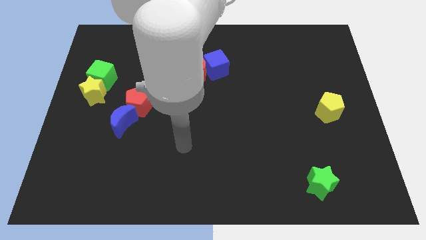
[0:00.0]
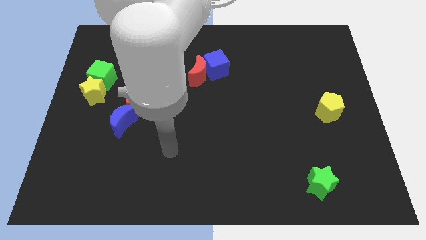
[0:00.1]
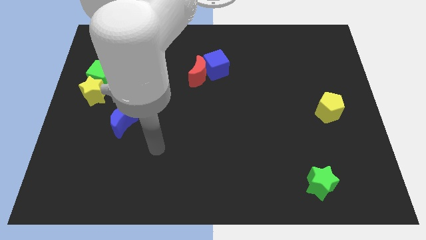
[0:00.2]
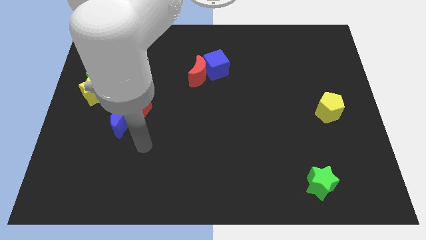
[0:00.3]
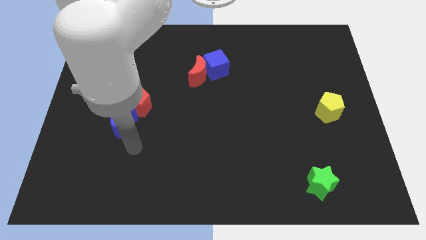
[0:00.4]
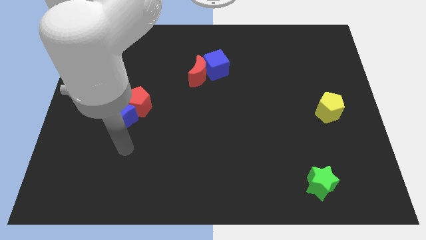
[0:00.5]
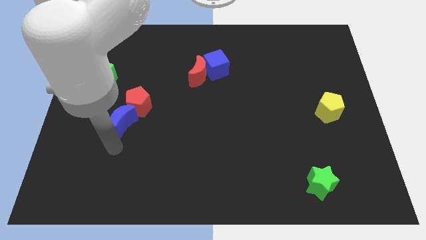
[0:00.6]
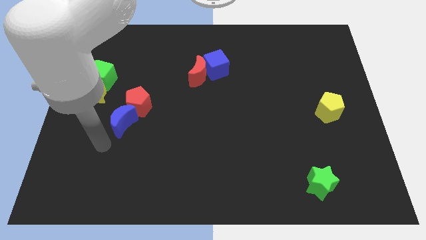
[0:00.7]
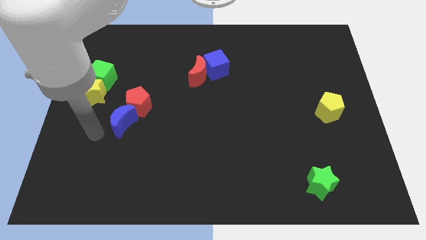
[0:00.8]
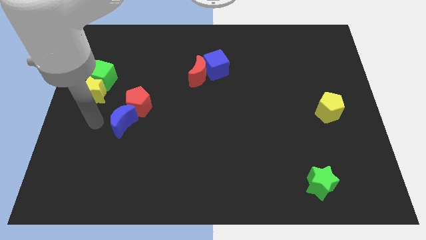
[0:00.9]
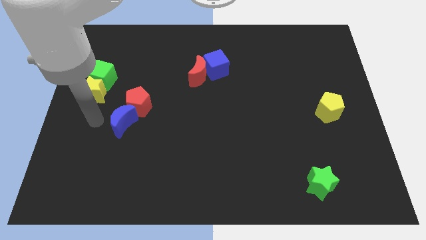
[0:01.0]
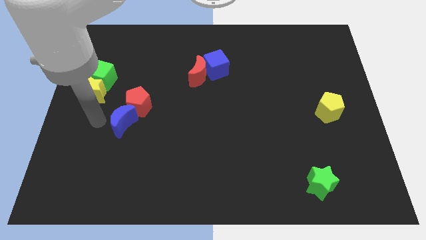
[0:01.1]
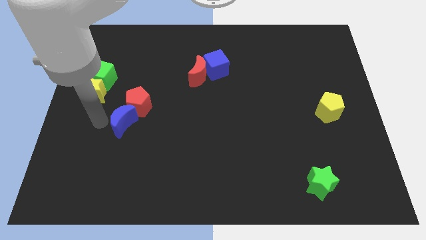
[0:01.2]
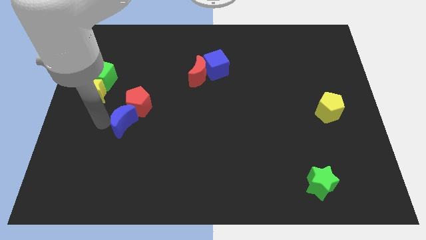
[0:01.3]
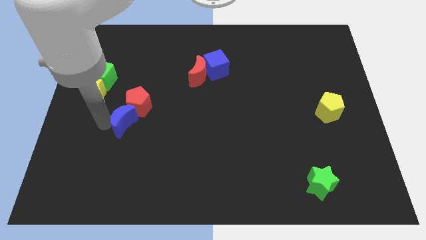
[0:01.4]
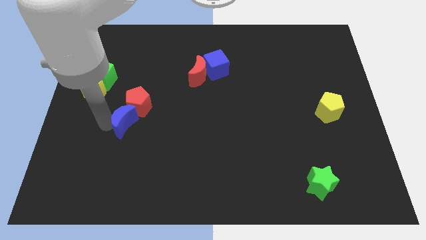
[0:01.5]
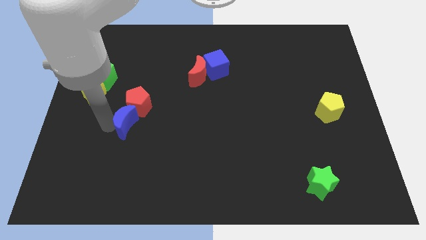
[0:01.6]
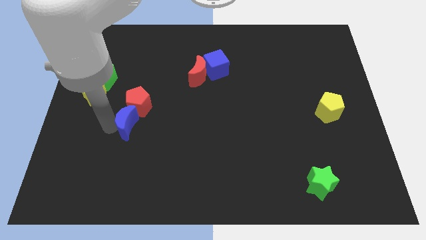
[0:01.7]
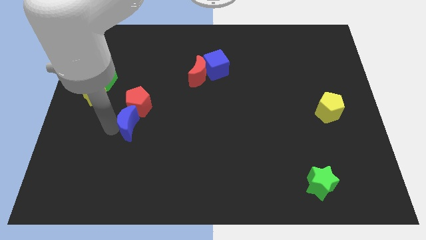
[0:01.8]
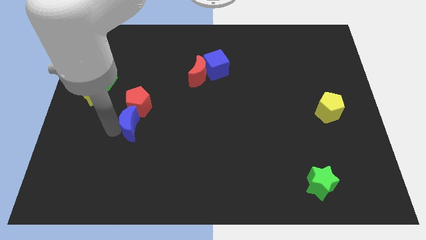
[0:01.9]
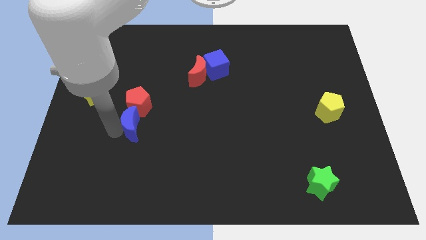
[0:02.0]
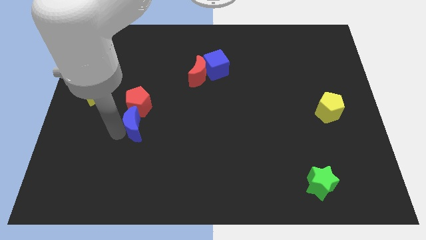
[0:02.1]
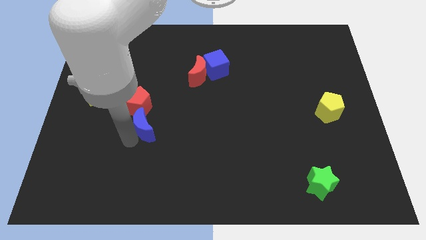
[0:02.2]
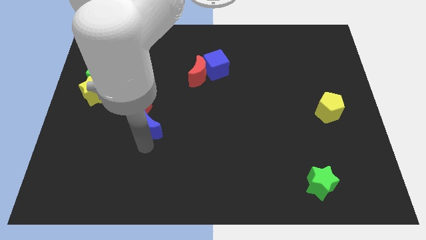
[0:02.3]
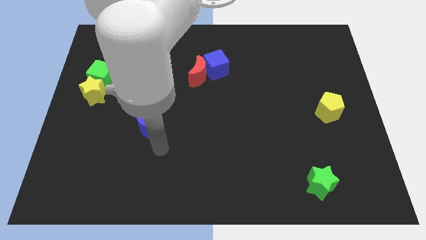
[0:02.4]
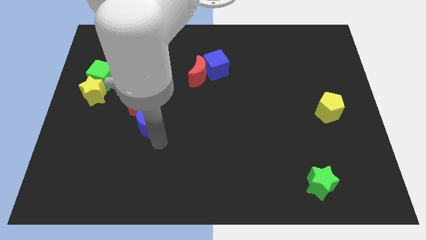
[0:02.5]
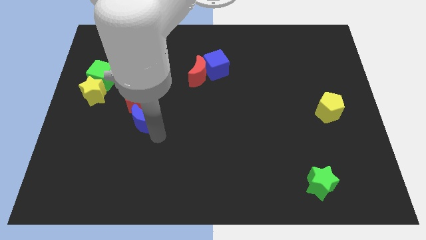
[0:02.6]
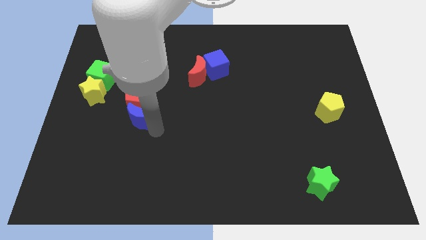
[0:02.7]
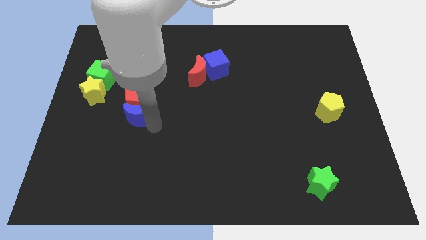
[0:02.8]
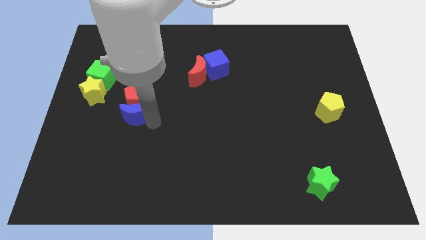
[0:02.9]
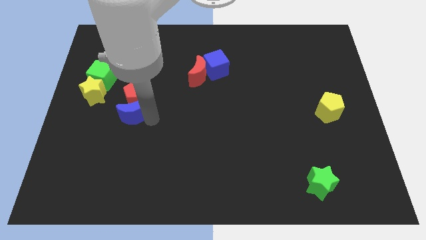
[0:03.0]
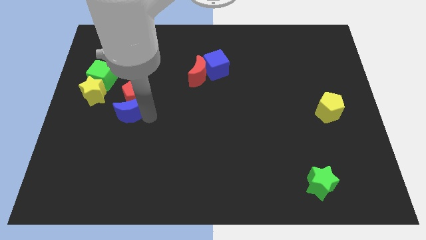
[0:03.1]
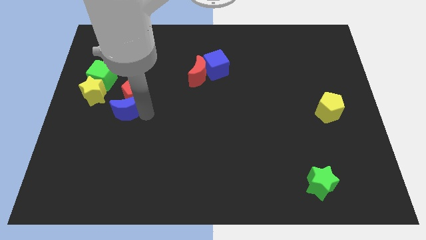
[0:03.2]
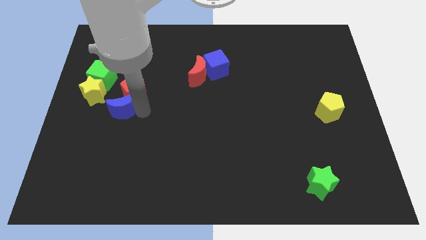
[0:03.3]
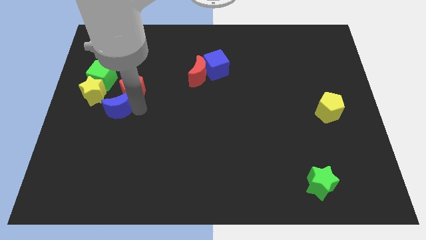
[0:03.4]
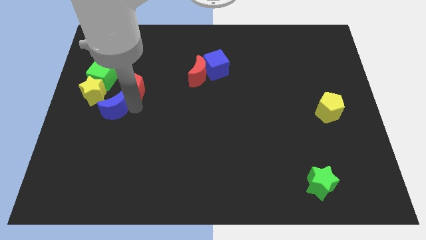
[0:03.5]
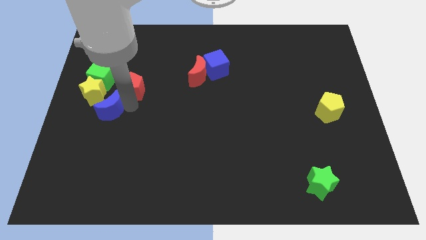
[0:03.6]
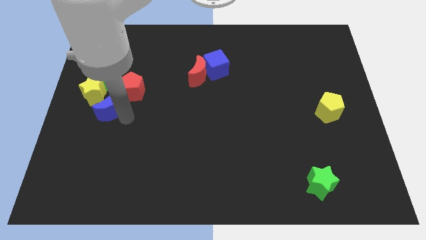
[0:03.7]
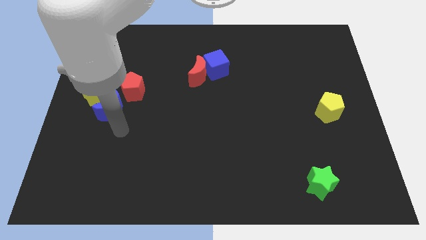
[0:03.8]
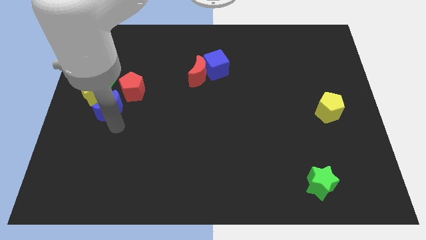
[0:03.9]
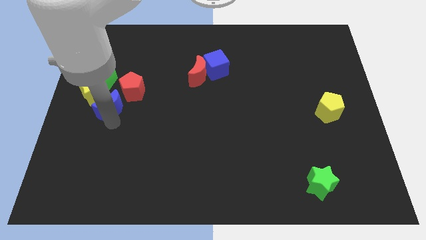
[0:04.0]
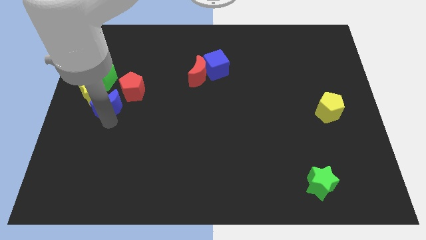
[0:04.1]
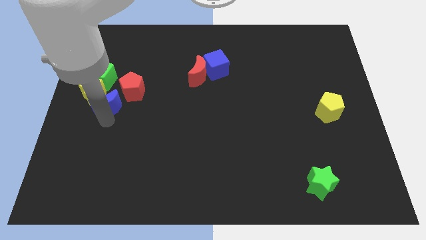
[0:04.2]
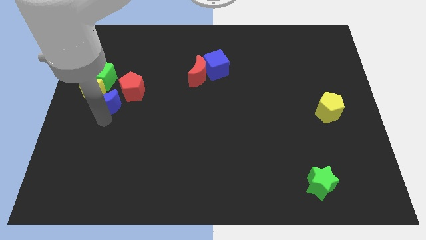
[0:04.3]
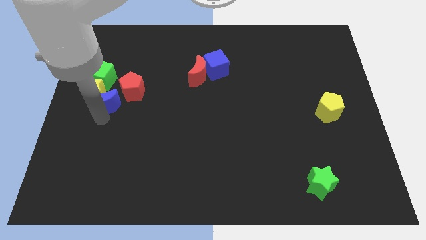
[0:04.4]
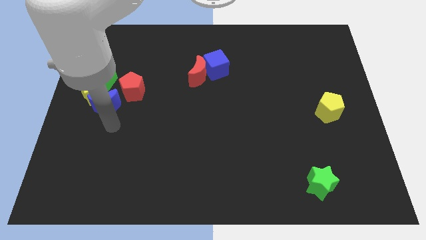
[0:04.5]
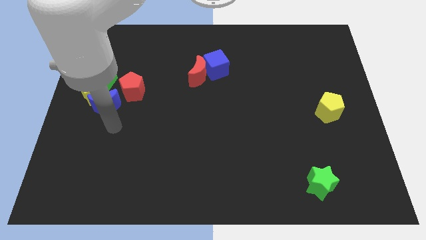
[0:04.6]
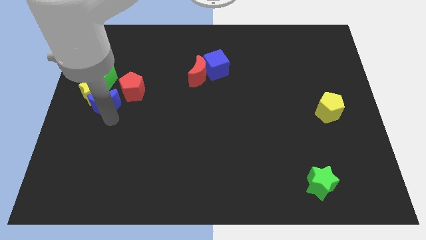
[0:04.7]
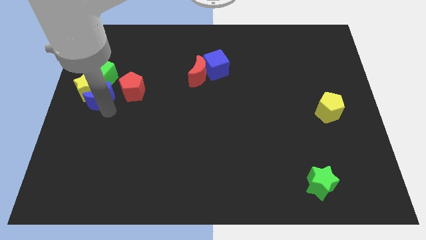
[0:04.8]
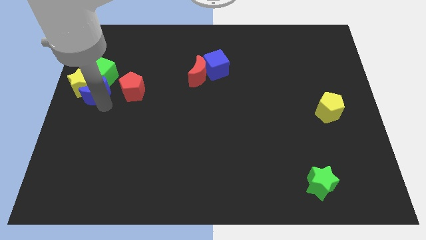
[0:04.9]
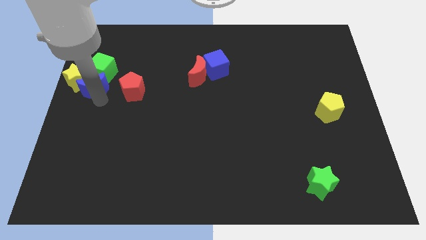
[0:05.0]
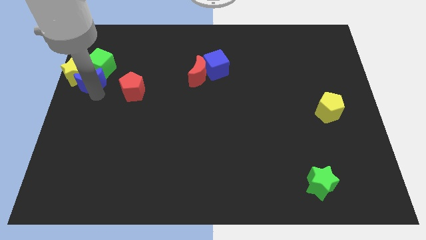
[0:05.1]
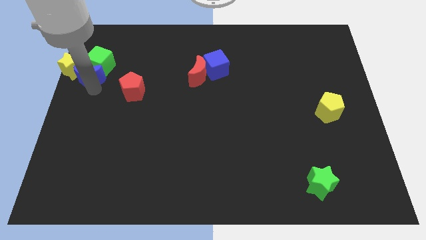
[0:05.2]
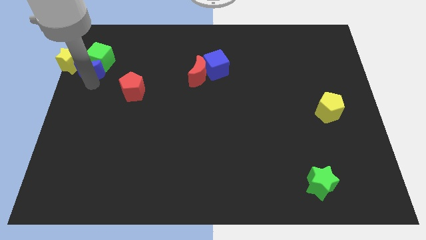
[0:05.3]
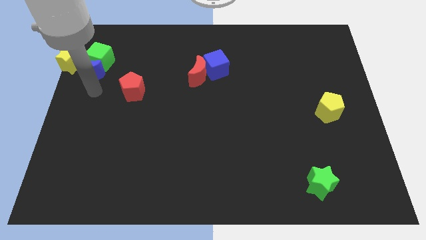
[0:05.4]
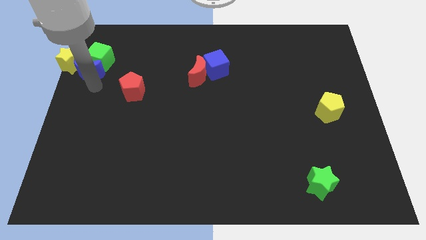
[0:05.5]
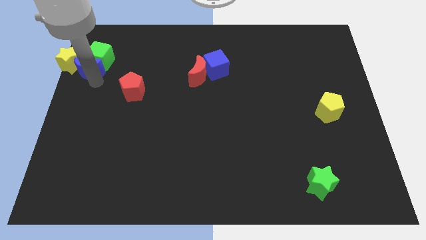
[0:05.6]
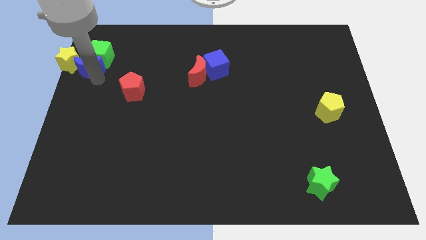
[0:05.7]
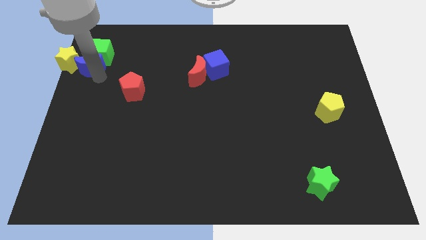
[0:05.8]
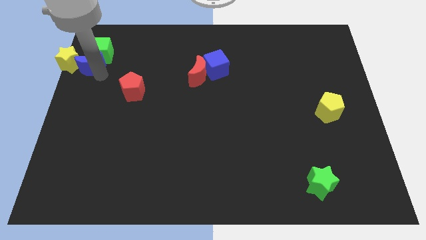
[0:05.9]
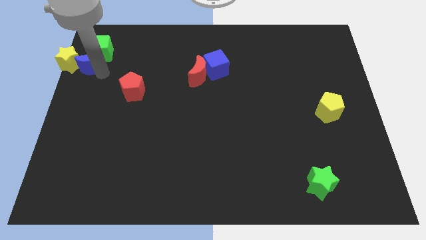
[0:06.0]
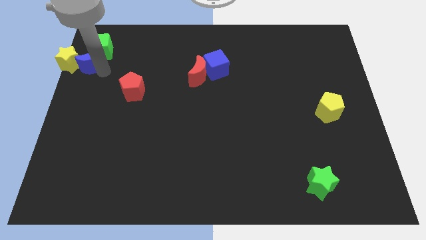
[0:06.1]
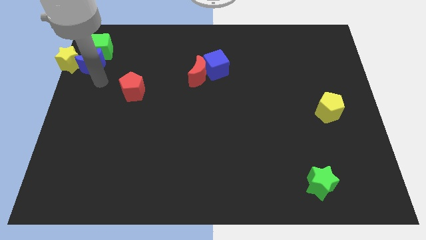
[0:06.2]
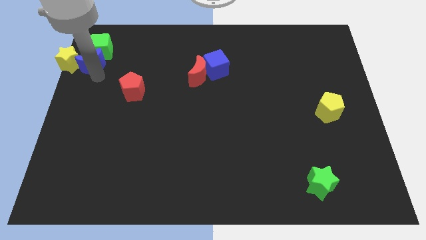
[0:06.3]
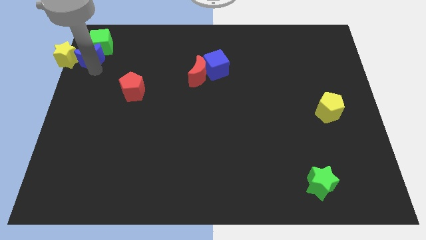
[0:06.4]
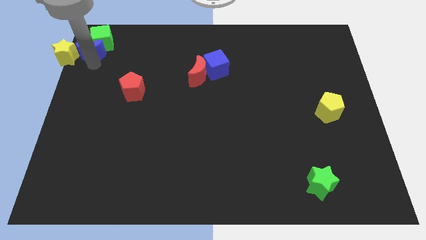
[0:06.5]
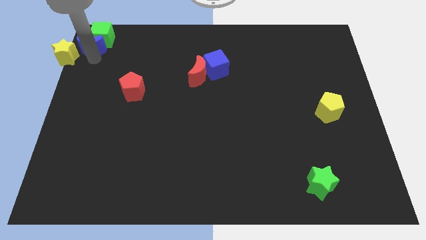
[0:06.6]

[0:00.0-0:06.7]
put the blue moon to the top left
